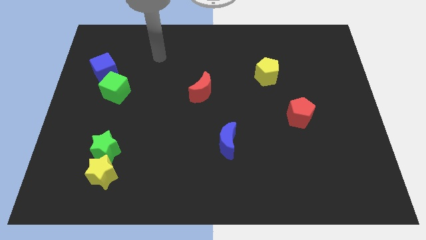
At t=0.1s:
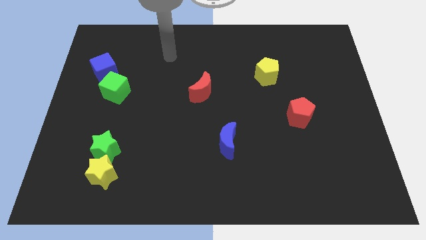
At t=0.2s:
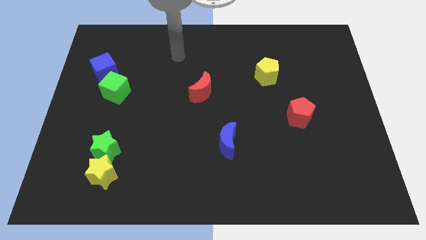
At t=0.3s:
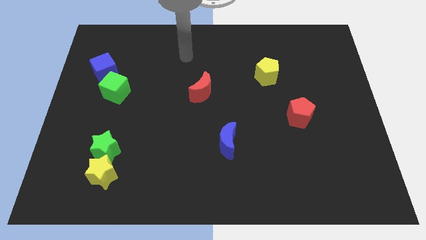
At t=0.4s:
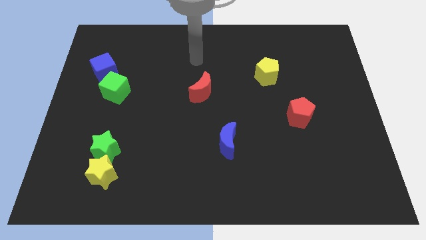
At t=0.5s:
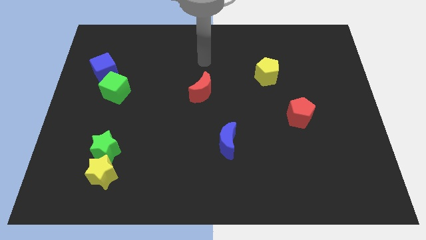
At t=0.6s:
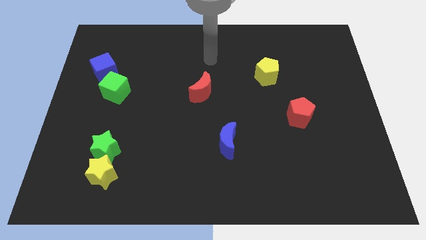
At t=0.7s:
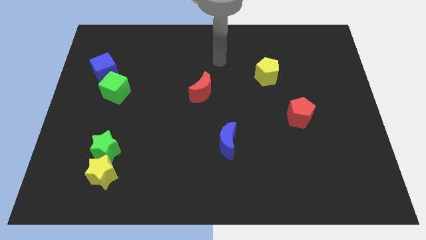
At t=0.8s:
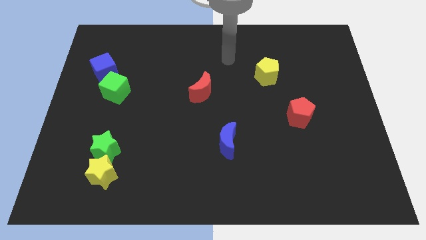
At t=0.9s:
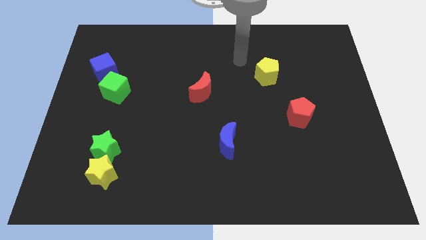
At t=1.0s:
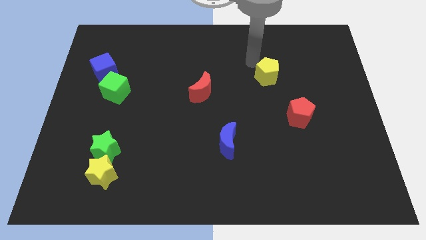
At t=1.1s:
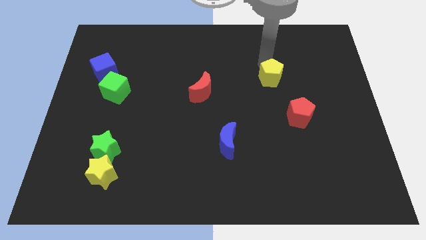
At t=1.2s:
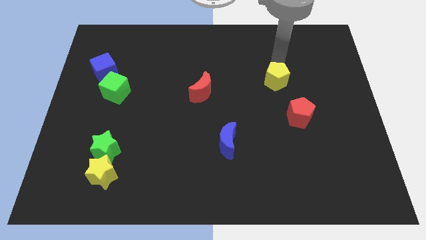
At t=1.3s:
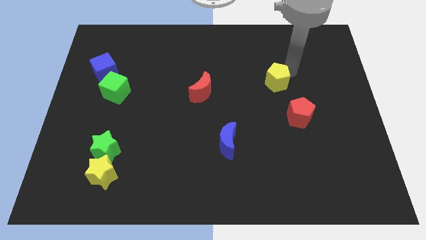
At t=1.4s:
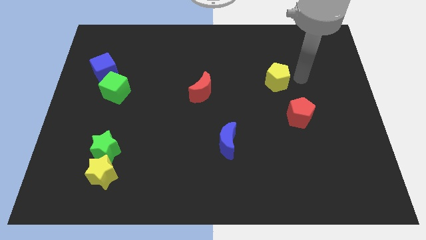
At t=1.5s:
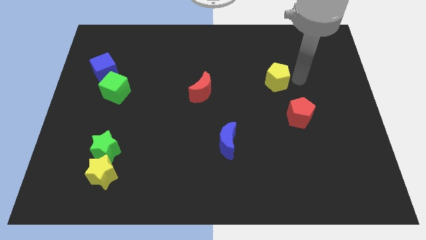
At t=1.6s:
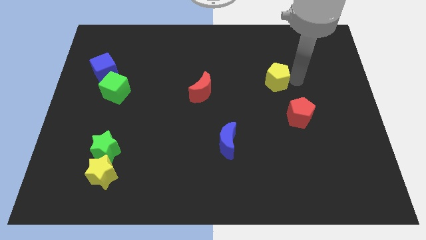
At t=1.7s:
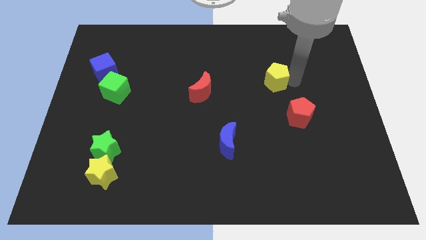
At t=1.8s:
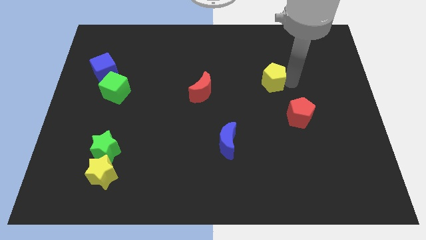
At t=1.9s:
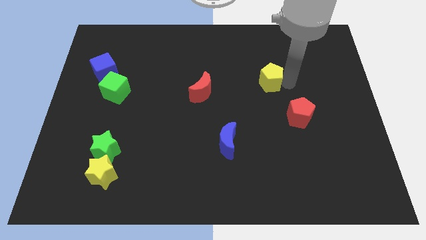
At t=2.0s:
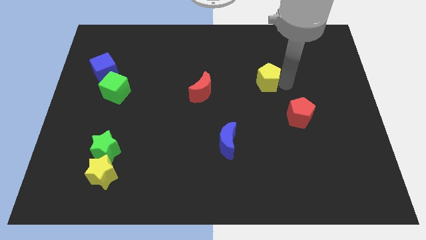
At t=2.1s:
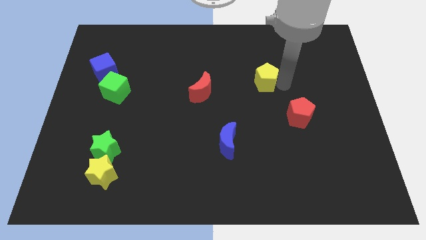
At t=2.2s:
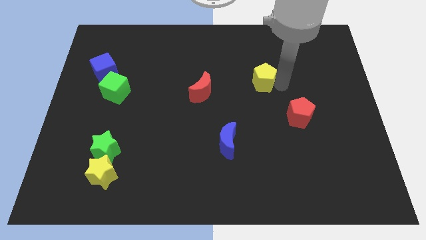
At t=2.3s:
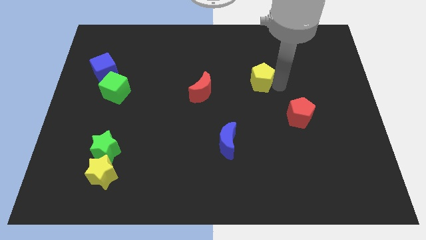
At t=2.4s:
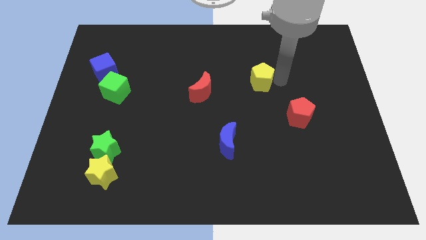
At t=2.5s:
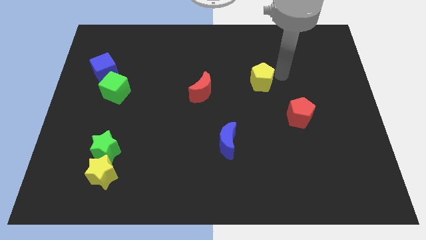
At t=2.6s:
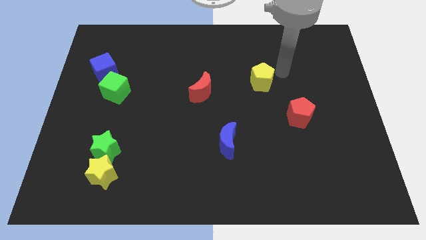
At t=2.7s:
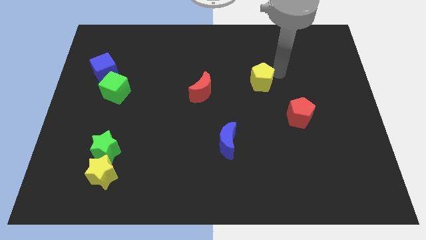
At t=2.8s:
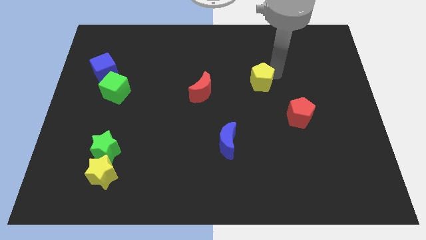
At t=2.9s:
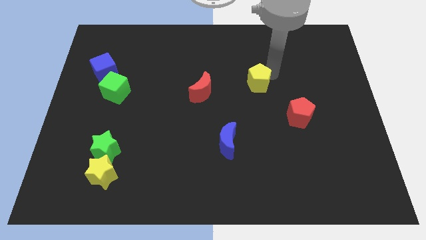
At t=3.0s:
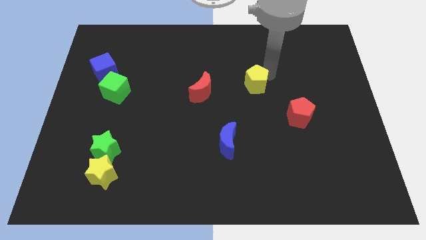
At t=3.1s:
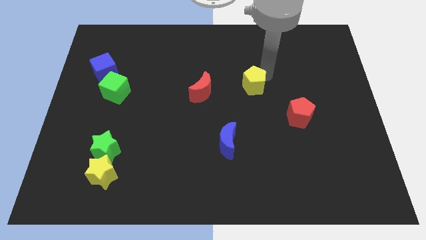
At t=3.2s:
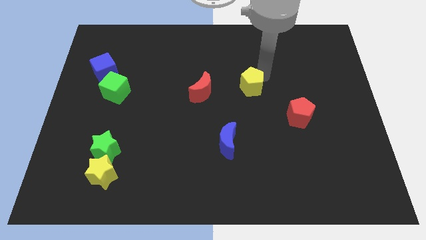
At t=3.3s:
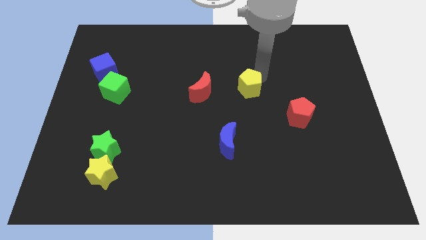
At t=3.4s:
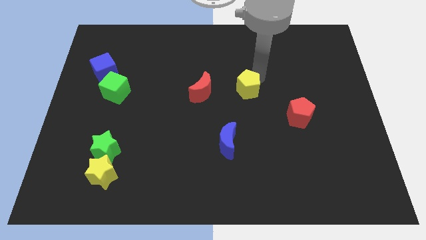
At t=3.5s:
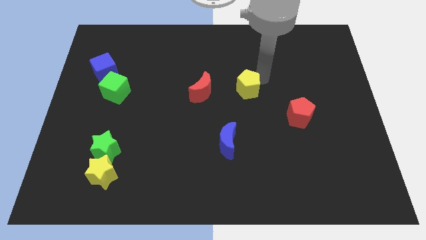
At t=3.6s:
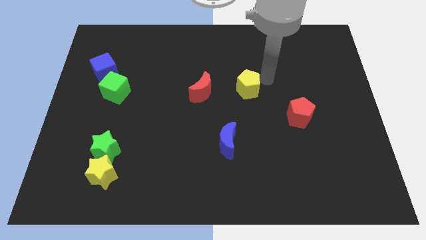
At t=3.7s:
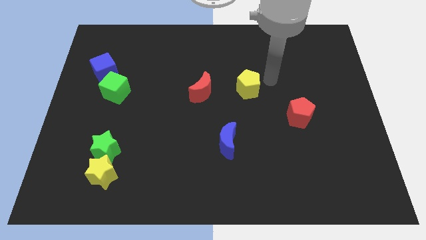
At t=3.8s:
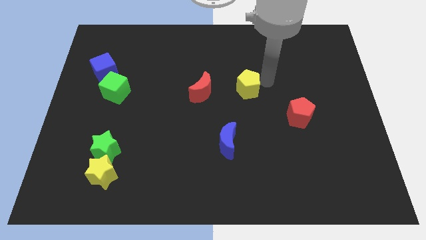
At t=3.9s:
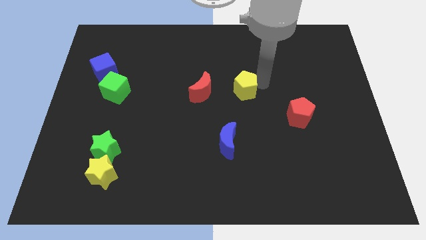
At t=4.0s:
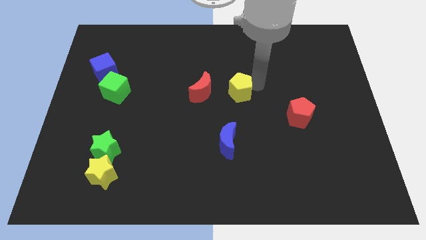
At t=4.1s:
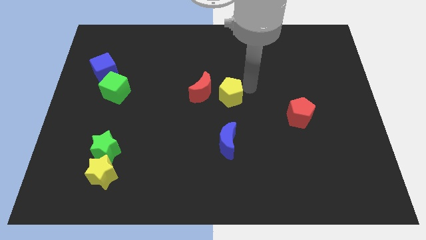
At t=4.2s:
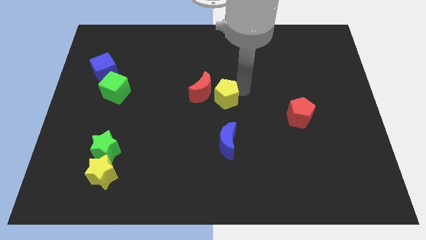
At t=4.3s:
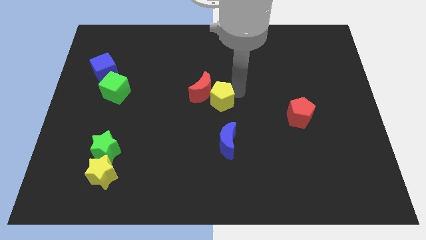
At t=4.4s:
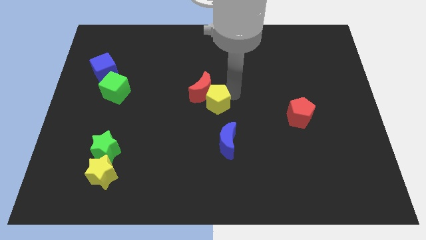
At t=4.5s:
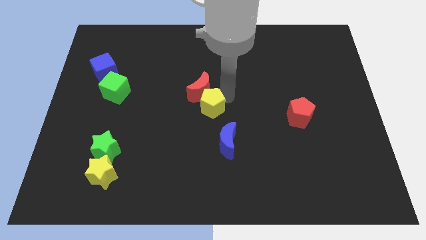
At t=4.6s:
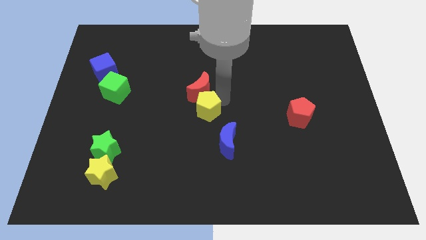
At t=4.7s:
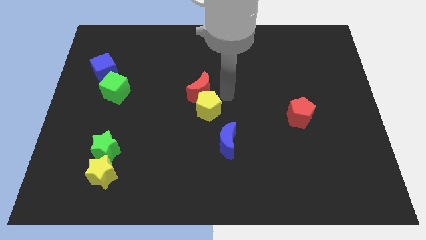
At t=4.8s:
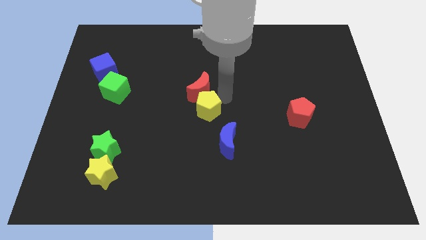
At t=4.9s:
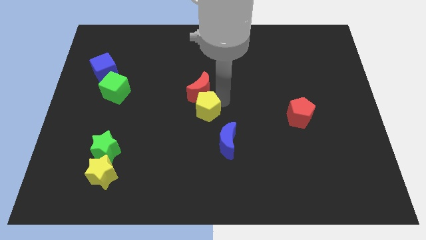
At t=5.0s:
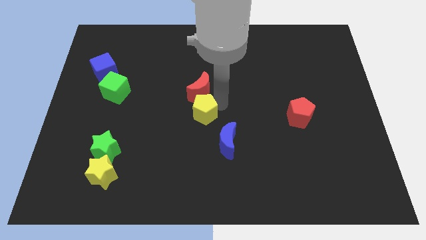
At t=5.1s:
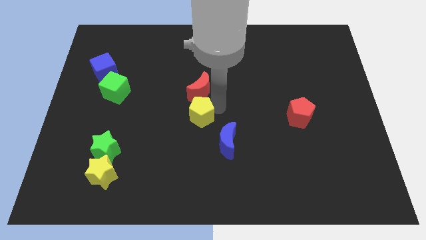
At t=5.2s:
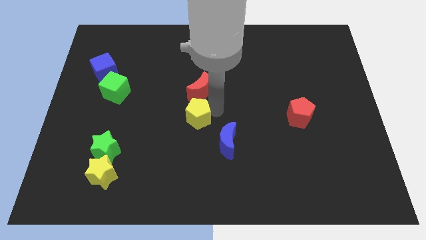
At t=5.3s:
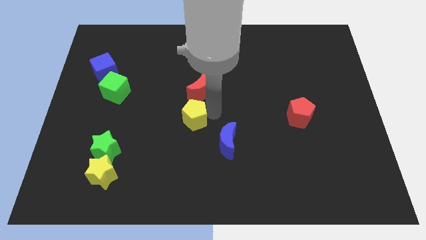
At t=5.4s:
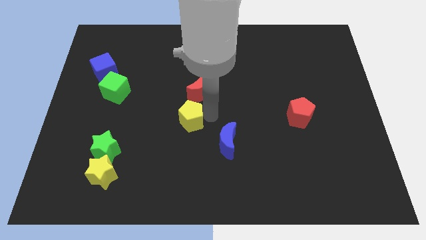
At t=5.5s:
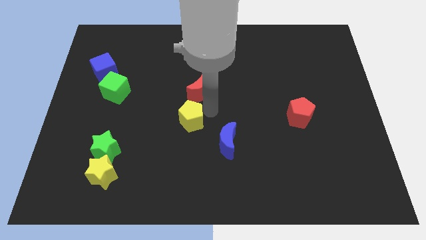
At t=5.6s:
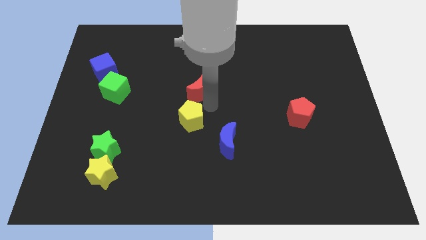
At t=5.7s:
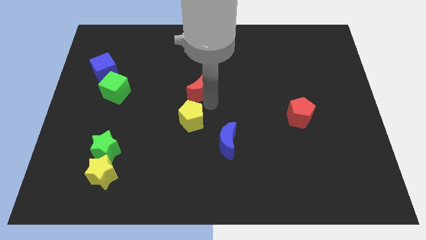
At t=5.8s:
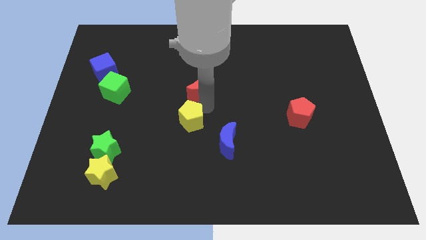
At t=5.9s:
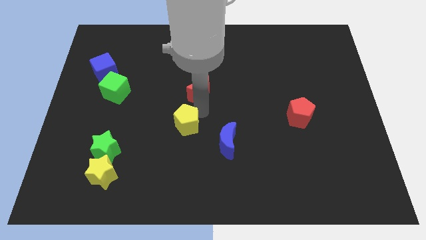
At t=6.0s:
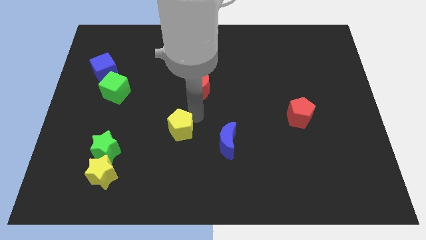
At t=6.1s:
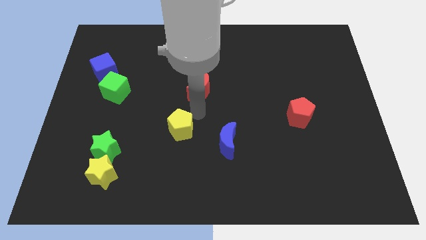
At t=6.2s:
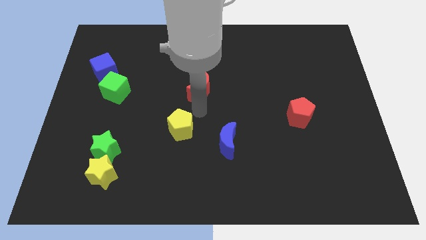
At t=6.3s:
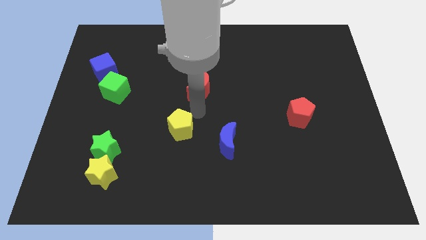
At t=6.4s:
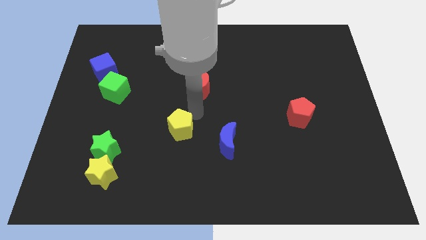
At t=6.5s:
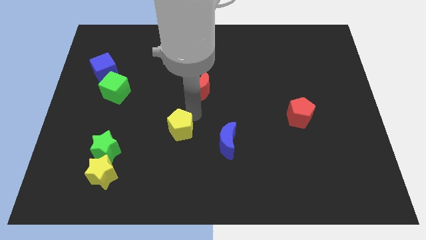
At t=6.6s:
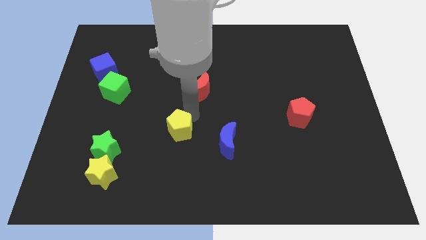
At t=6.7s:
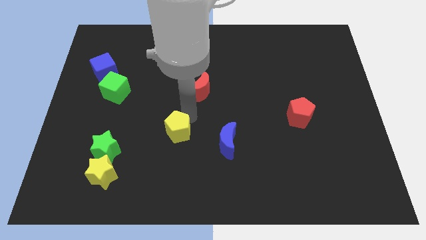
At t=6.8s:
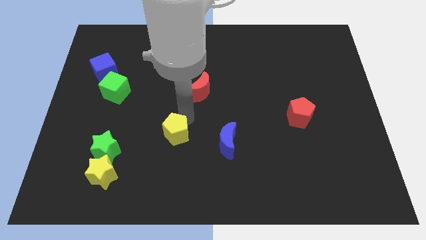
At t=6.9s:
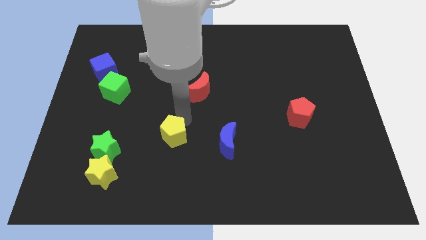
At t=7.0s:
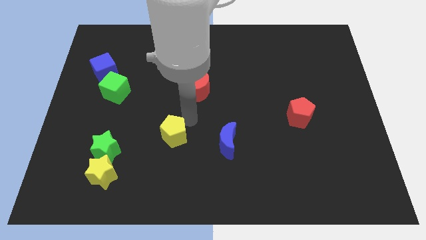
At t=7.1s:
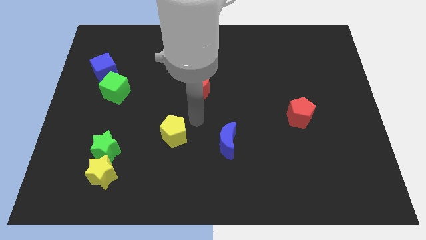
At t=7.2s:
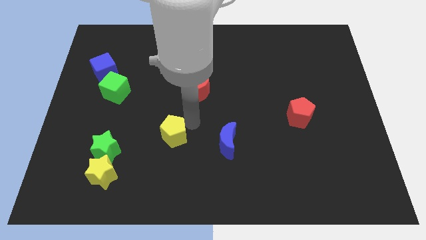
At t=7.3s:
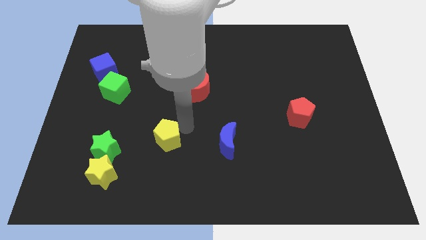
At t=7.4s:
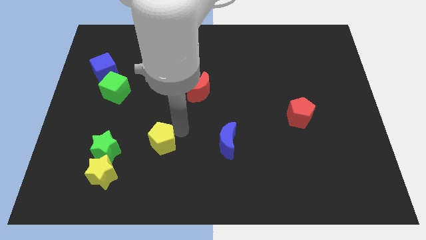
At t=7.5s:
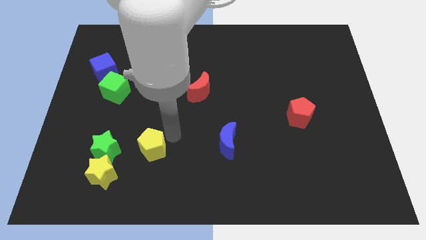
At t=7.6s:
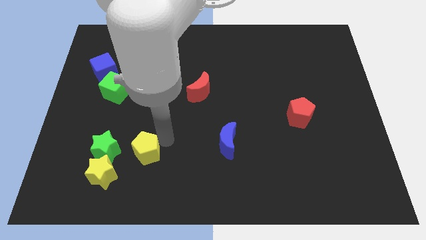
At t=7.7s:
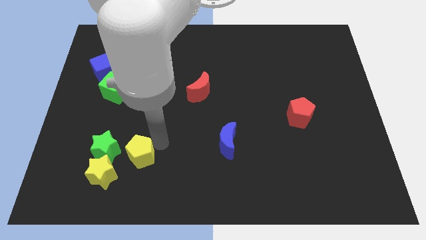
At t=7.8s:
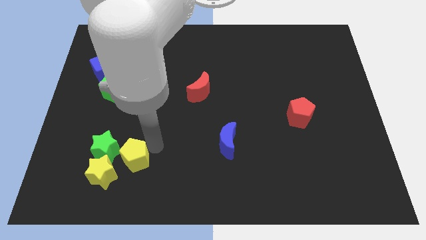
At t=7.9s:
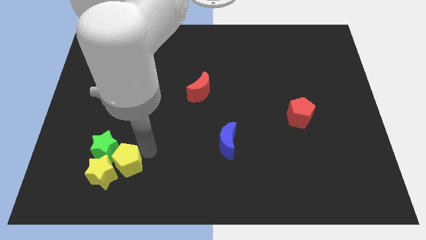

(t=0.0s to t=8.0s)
push the yellow pentagon next to the yellow star
